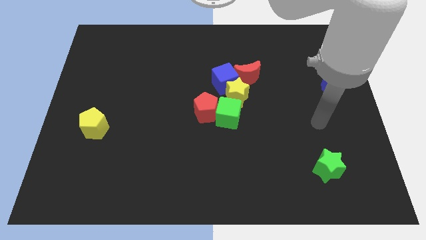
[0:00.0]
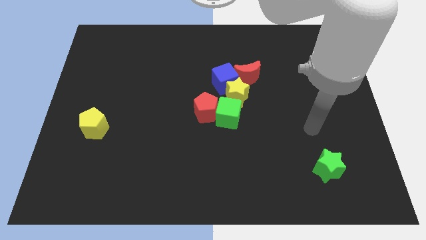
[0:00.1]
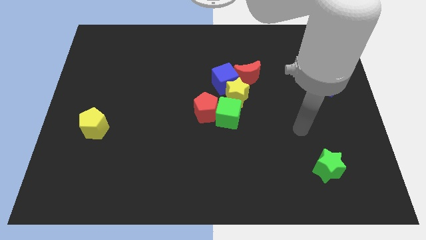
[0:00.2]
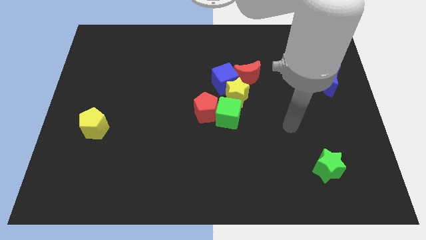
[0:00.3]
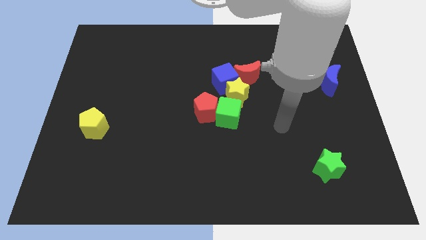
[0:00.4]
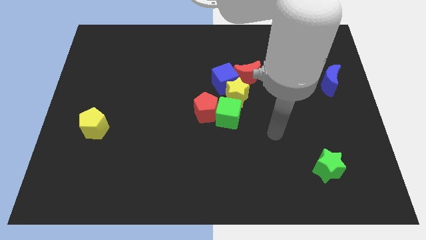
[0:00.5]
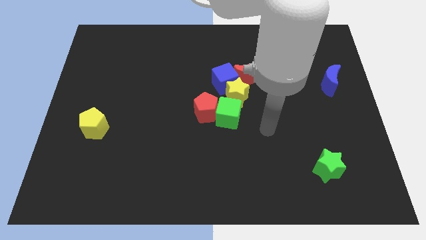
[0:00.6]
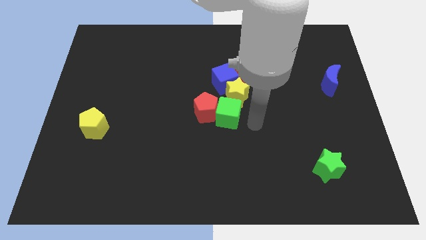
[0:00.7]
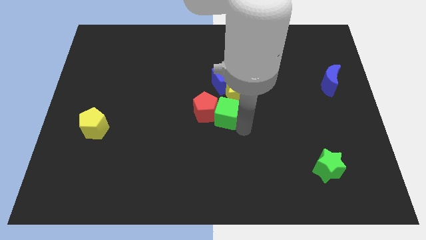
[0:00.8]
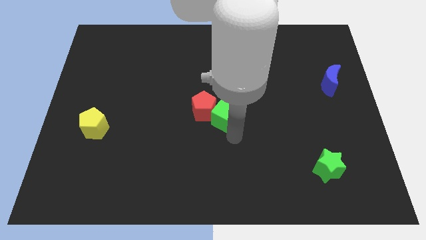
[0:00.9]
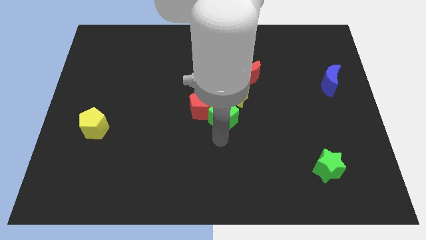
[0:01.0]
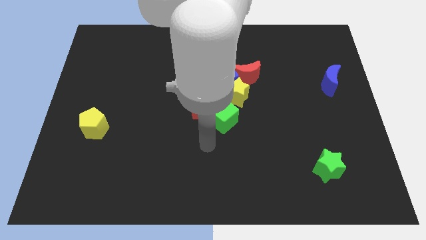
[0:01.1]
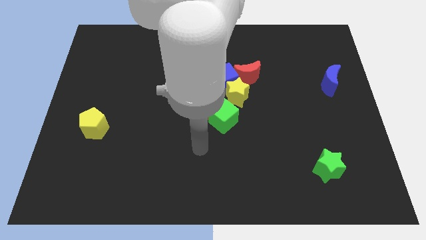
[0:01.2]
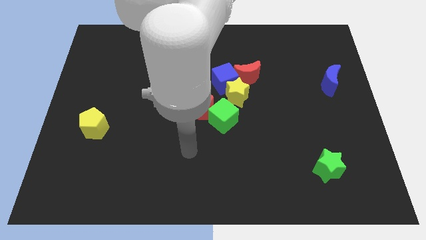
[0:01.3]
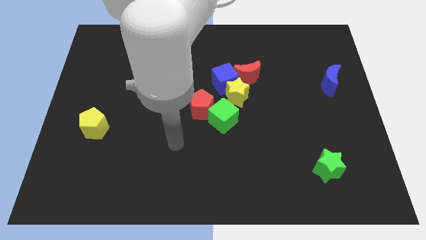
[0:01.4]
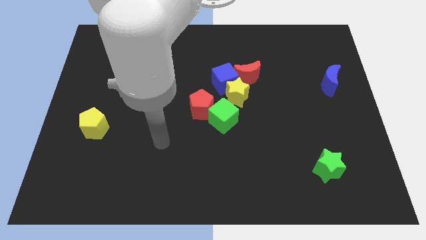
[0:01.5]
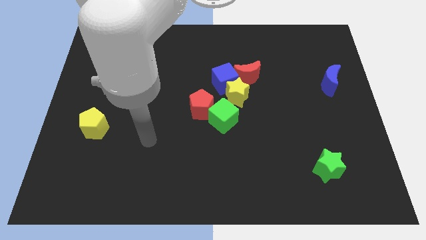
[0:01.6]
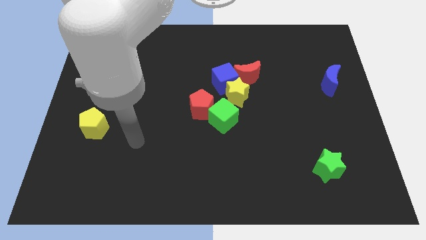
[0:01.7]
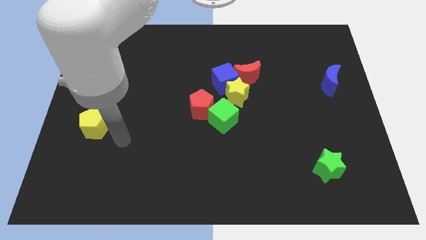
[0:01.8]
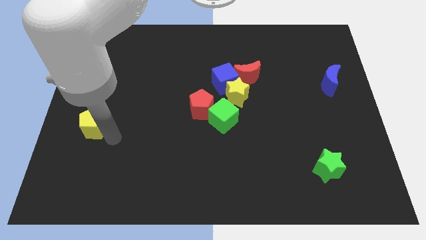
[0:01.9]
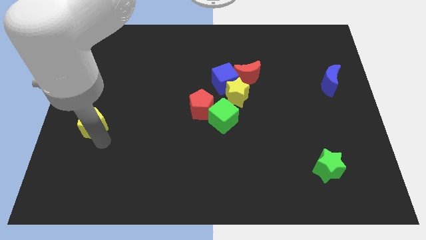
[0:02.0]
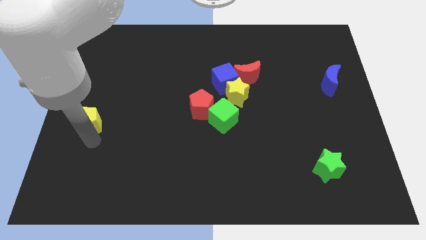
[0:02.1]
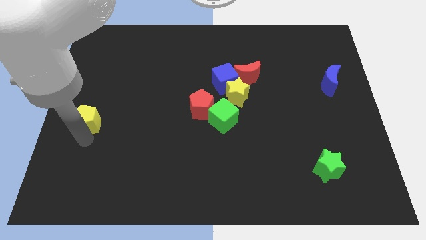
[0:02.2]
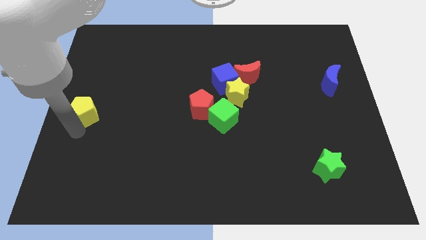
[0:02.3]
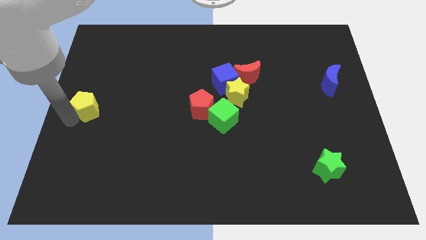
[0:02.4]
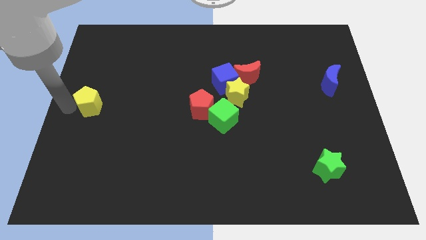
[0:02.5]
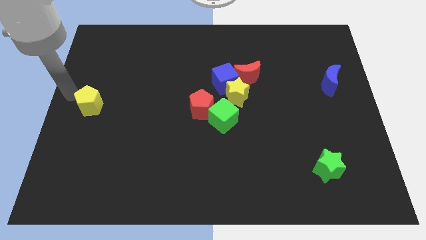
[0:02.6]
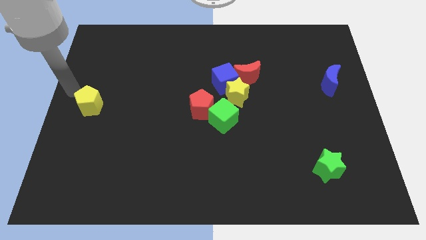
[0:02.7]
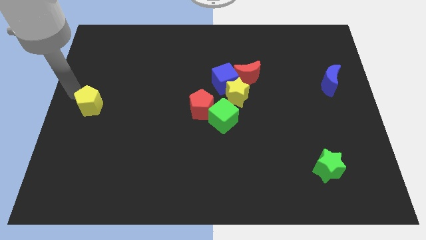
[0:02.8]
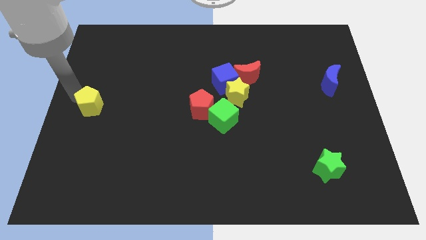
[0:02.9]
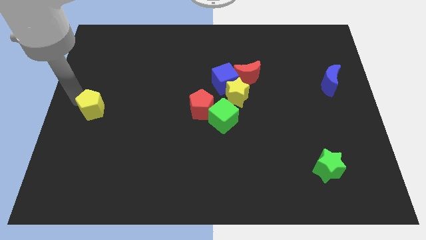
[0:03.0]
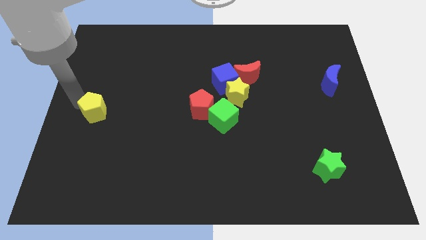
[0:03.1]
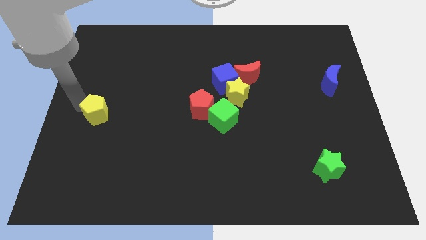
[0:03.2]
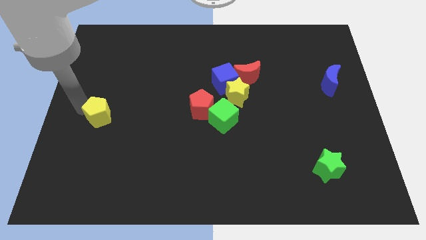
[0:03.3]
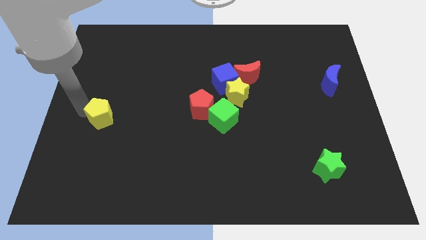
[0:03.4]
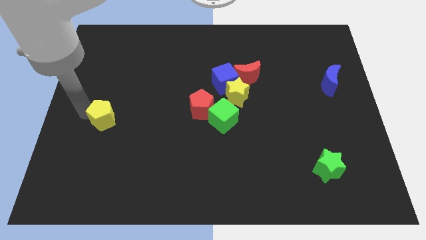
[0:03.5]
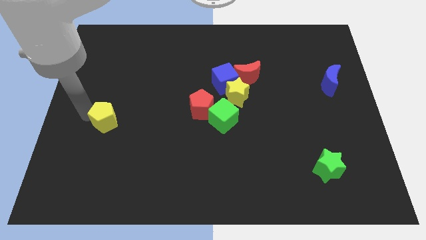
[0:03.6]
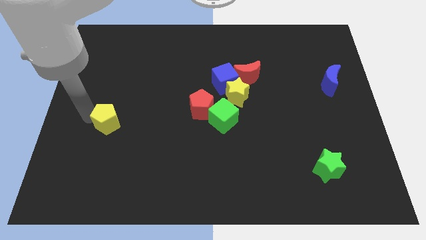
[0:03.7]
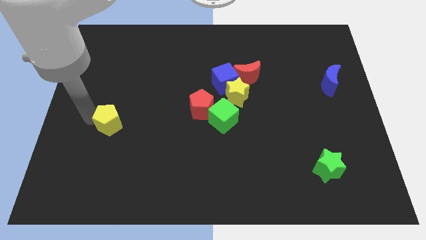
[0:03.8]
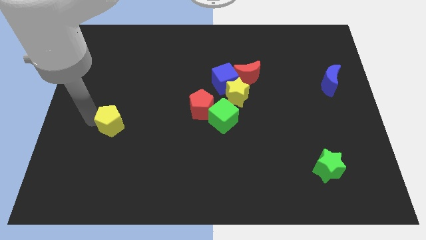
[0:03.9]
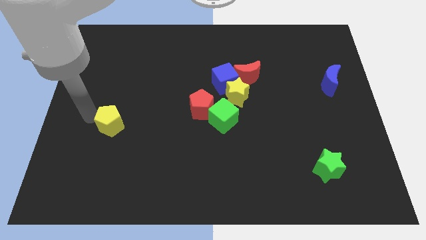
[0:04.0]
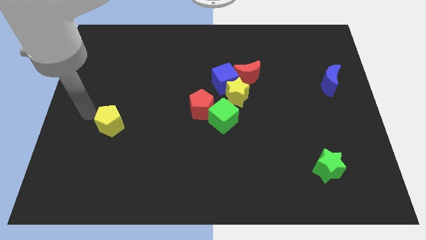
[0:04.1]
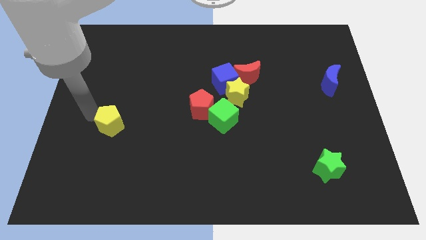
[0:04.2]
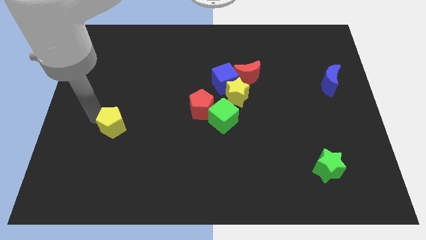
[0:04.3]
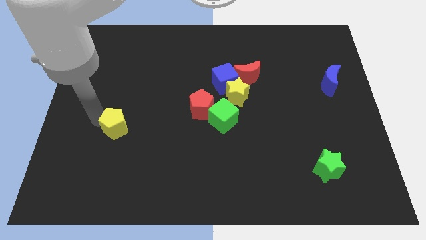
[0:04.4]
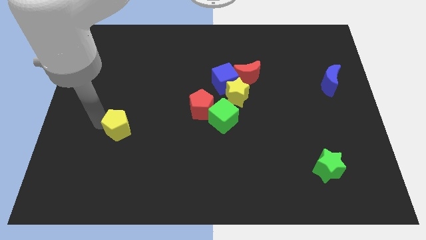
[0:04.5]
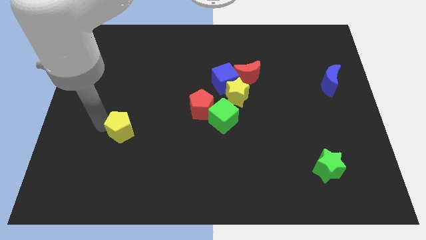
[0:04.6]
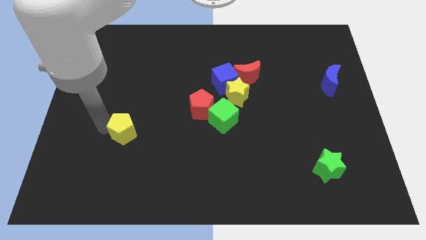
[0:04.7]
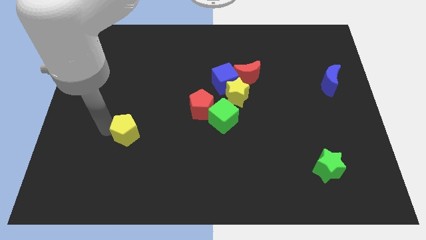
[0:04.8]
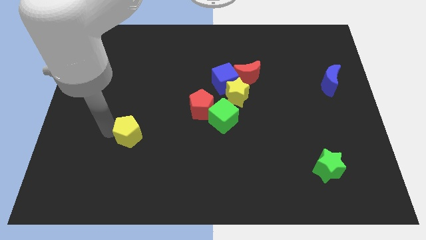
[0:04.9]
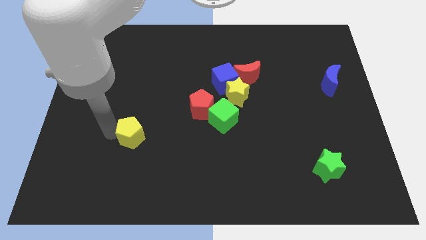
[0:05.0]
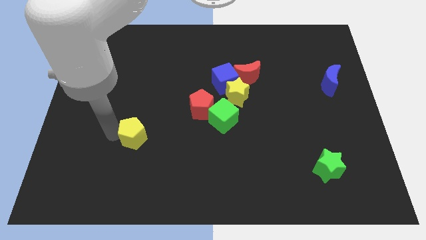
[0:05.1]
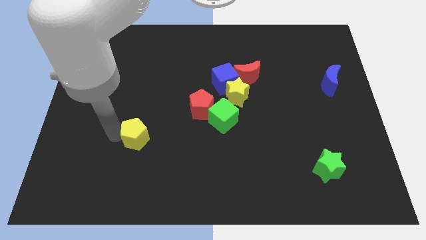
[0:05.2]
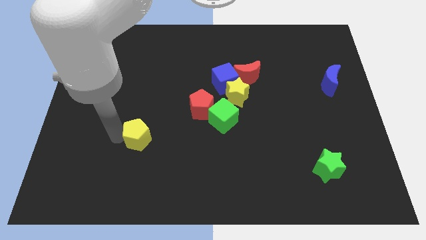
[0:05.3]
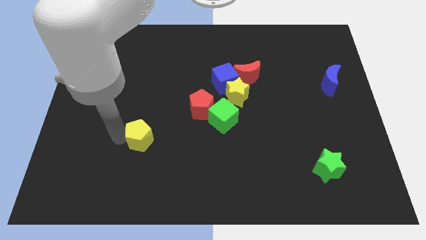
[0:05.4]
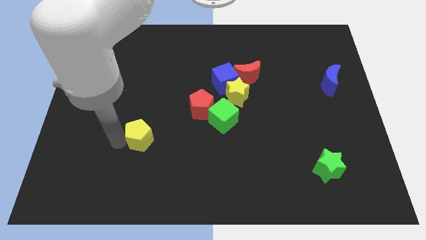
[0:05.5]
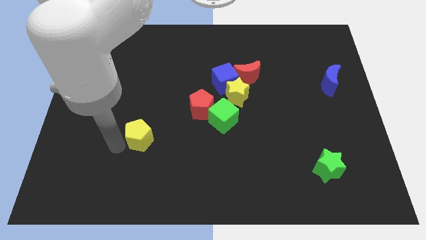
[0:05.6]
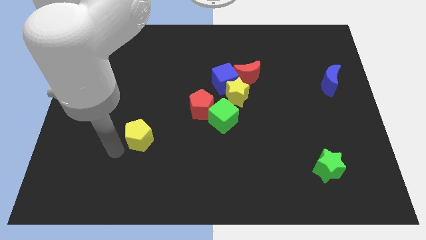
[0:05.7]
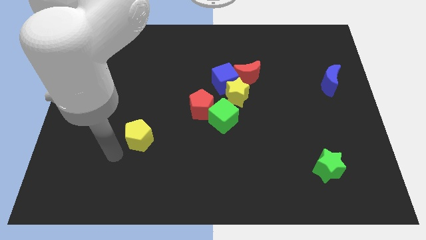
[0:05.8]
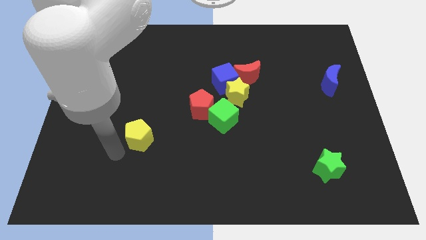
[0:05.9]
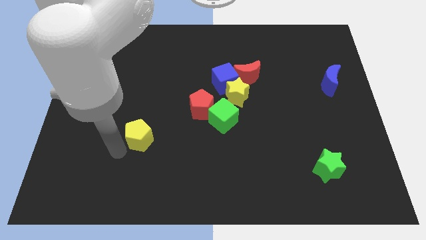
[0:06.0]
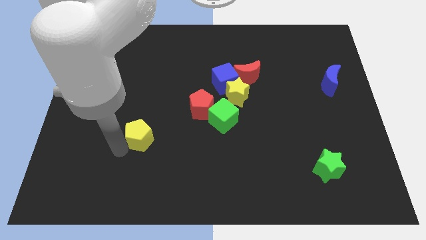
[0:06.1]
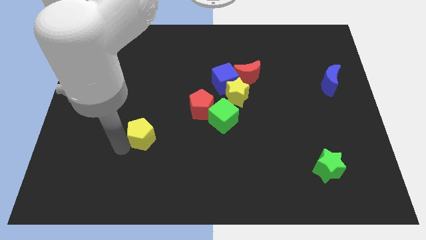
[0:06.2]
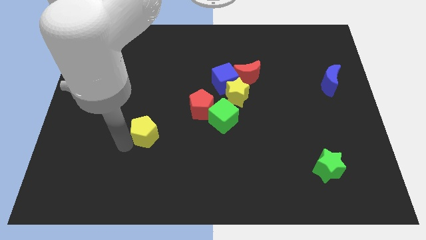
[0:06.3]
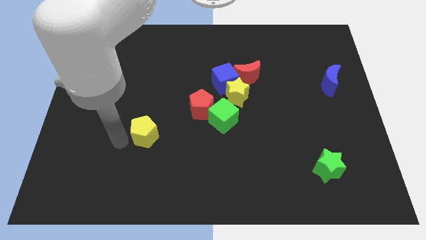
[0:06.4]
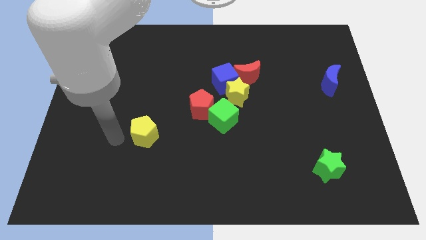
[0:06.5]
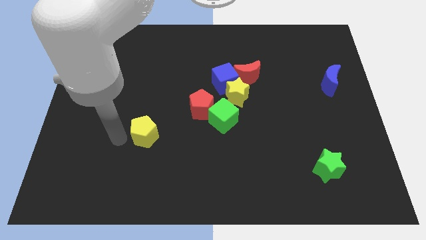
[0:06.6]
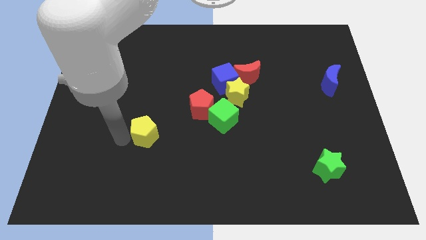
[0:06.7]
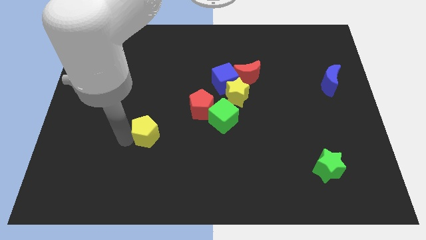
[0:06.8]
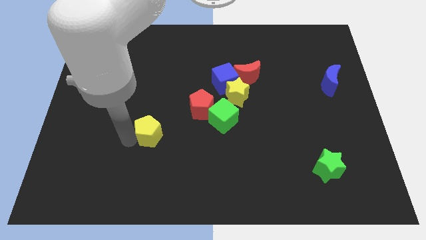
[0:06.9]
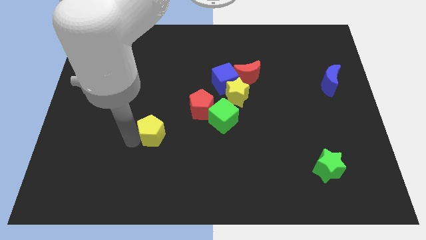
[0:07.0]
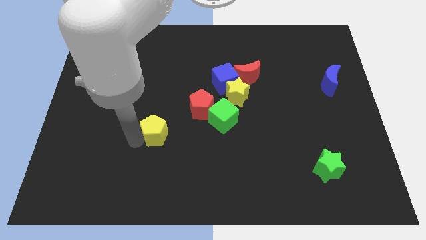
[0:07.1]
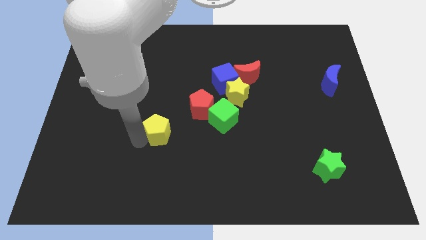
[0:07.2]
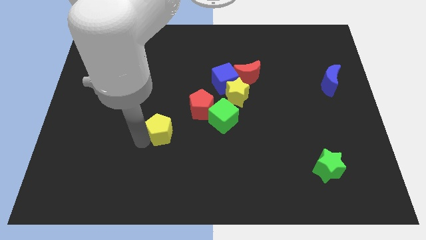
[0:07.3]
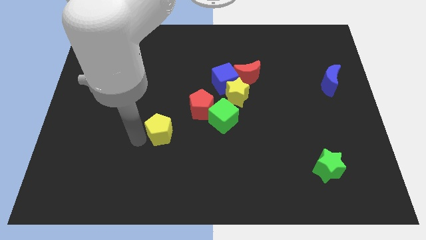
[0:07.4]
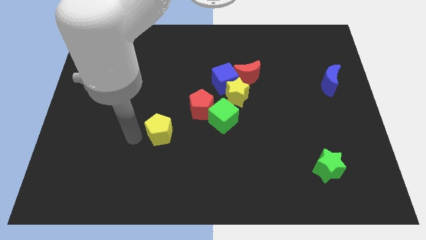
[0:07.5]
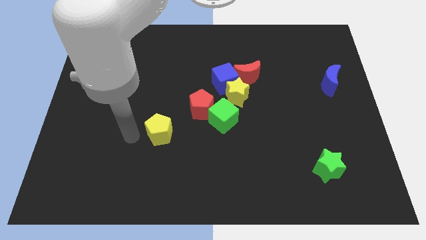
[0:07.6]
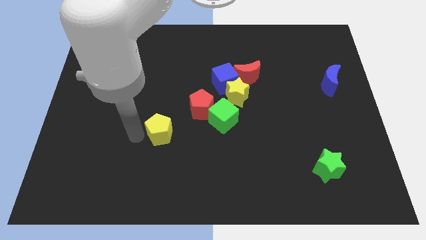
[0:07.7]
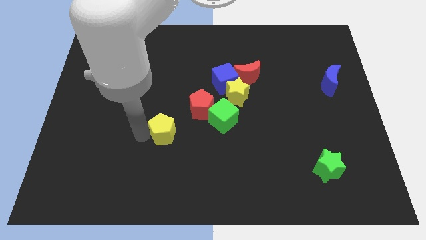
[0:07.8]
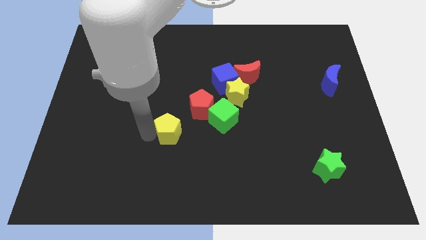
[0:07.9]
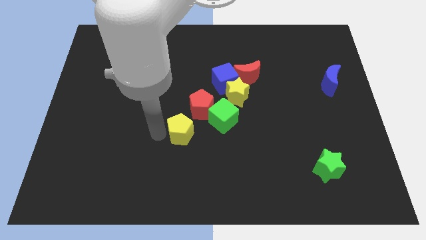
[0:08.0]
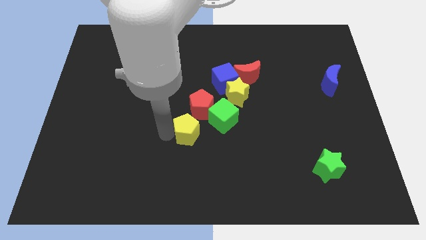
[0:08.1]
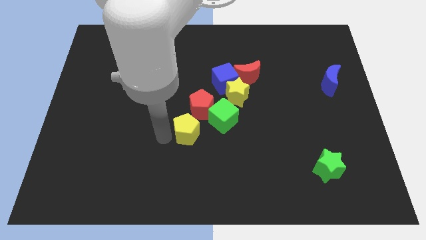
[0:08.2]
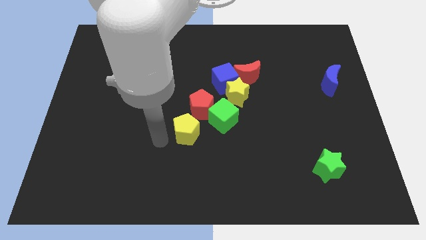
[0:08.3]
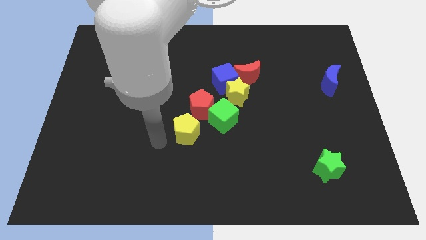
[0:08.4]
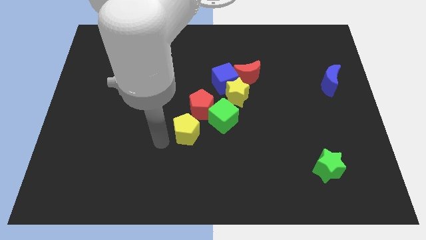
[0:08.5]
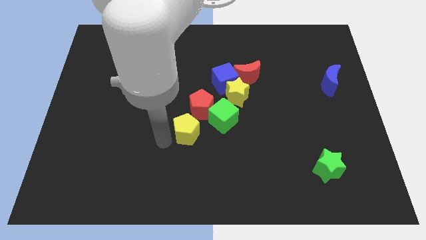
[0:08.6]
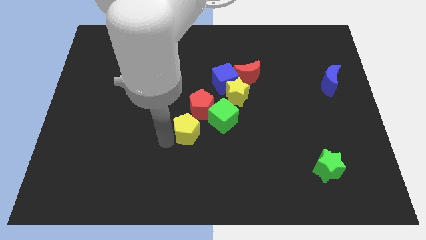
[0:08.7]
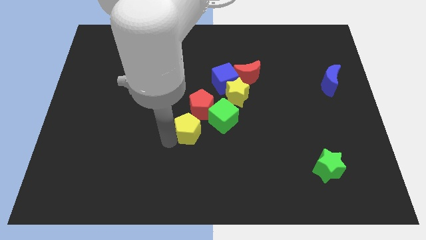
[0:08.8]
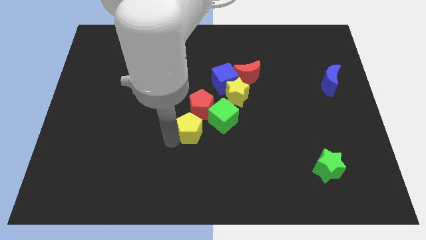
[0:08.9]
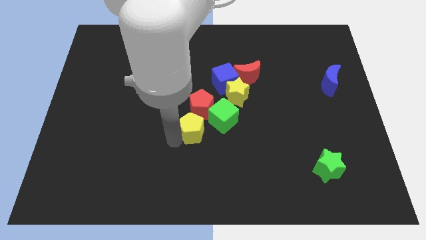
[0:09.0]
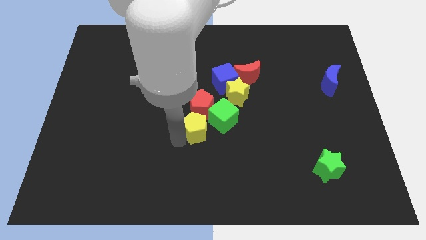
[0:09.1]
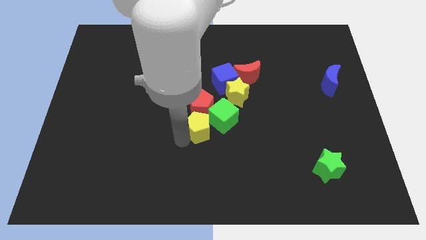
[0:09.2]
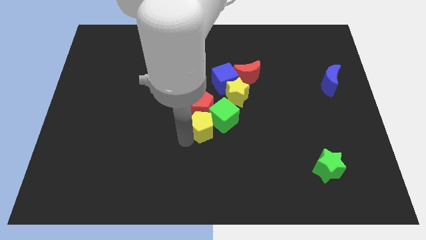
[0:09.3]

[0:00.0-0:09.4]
slide the yellow pentagon to the green cube
